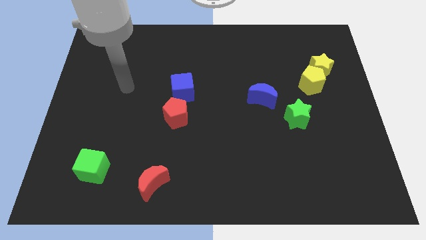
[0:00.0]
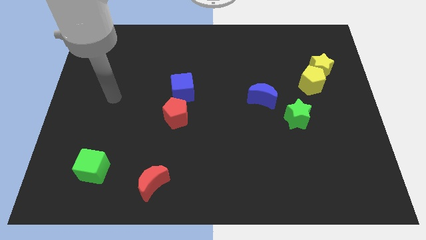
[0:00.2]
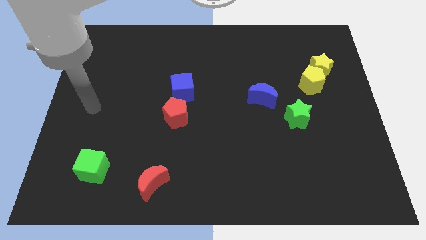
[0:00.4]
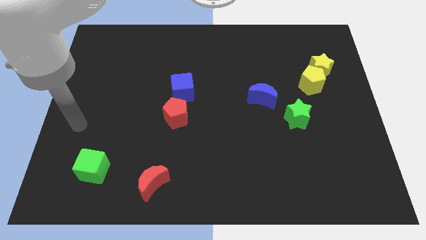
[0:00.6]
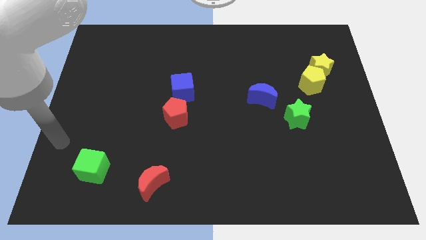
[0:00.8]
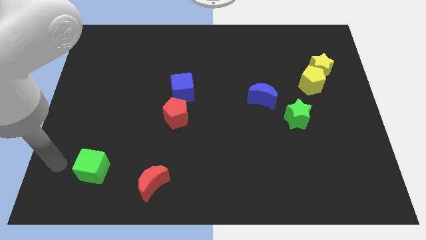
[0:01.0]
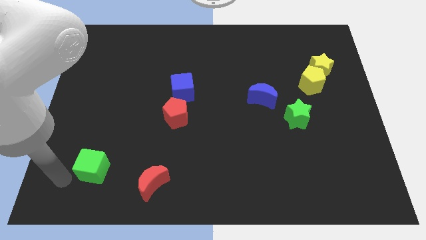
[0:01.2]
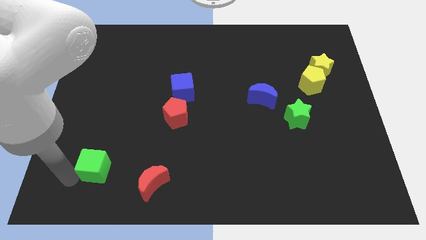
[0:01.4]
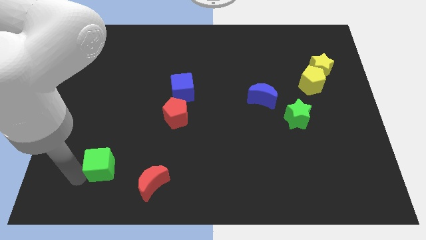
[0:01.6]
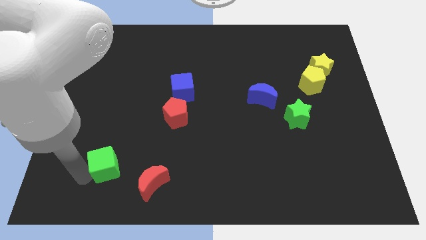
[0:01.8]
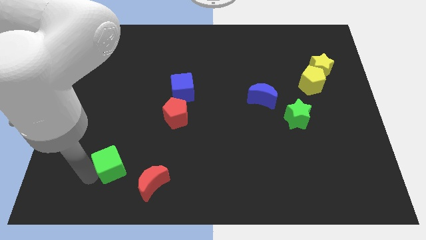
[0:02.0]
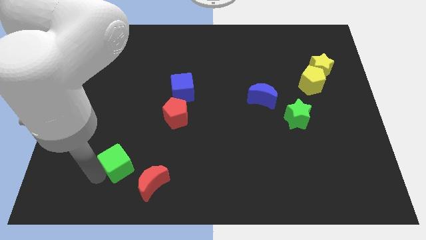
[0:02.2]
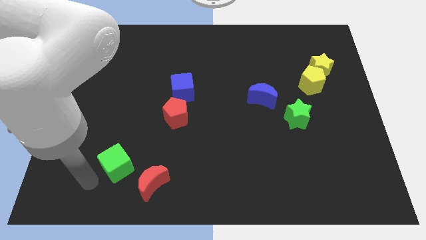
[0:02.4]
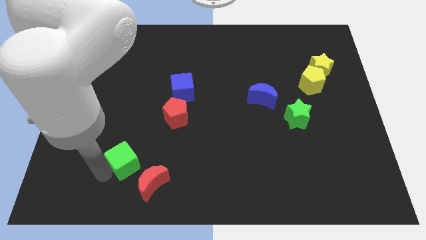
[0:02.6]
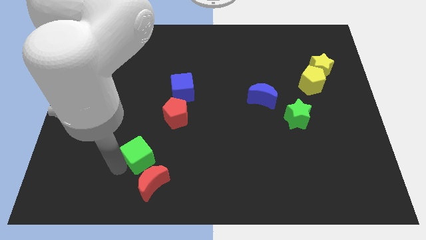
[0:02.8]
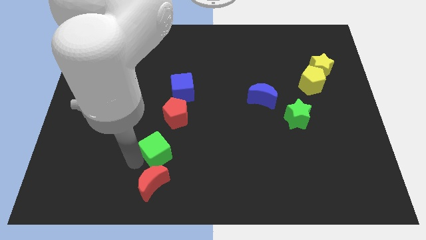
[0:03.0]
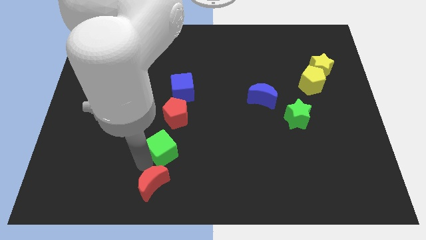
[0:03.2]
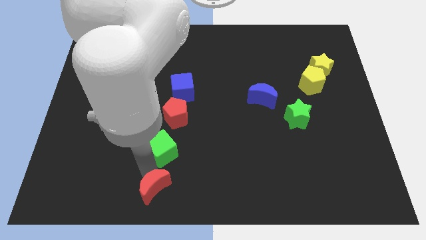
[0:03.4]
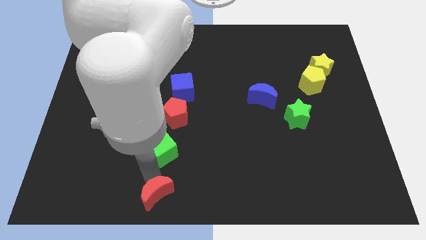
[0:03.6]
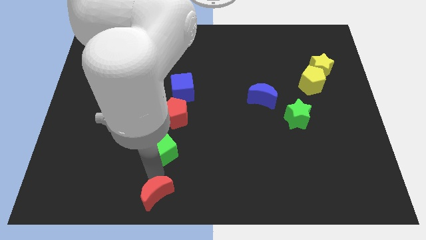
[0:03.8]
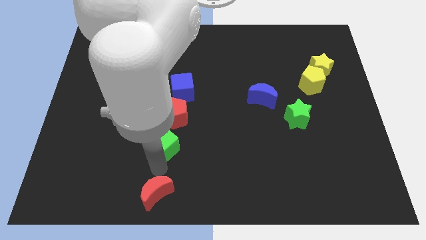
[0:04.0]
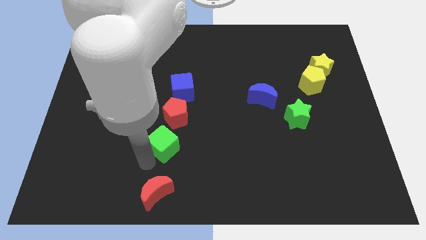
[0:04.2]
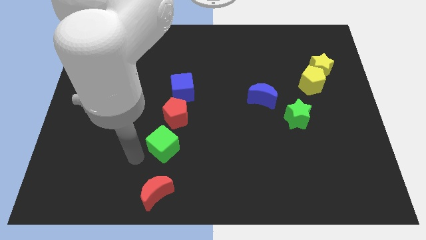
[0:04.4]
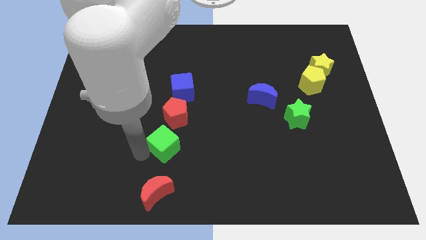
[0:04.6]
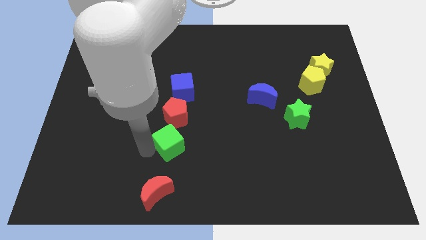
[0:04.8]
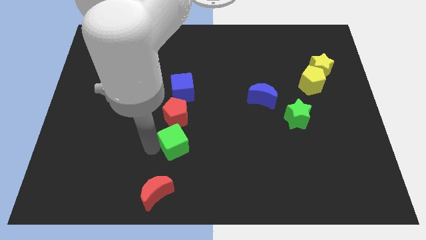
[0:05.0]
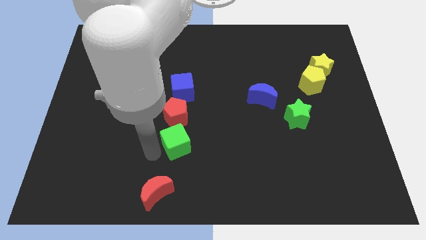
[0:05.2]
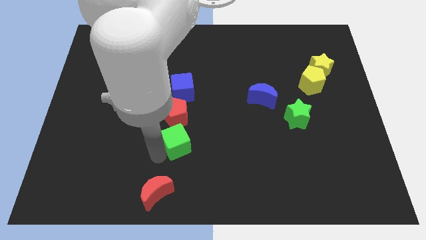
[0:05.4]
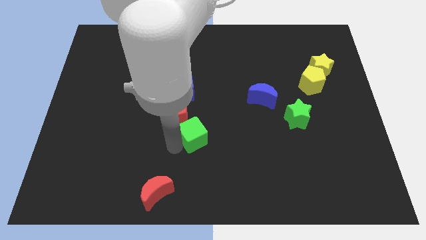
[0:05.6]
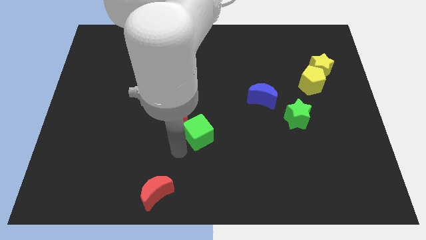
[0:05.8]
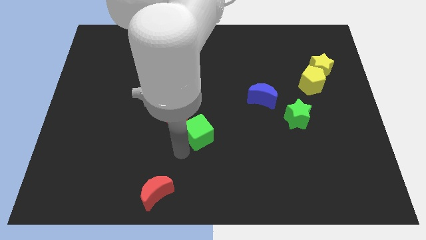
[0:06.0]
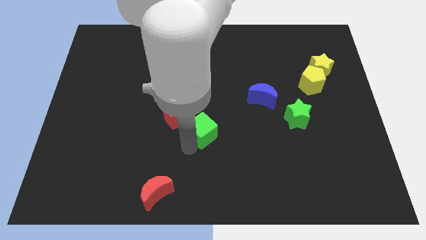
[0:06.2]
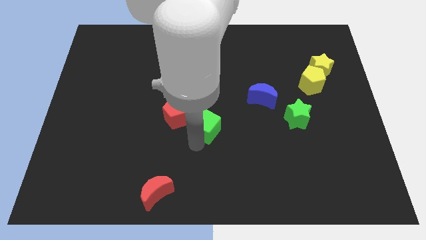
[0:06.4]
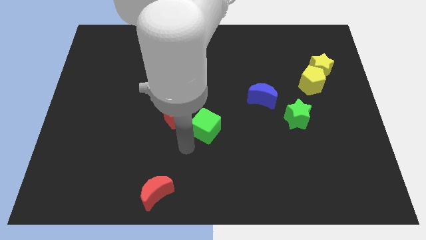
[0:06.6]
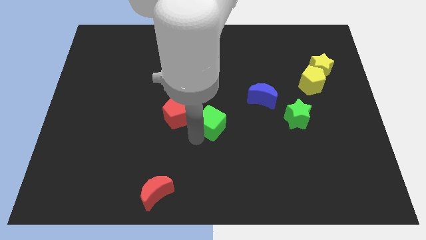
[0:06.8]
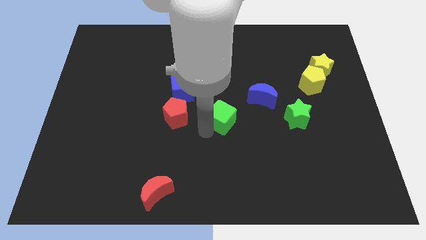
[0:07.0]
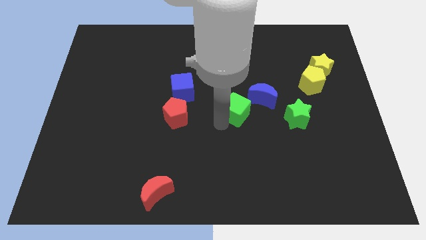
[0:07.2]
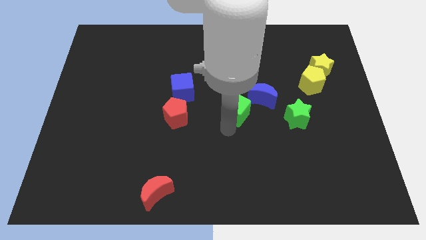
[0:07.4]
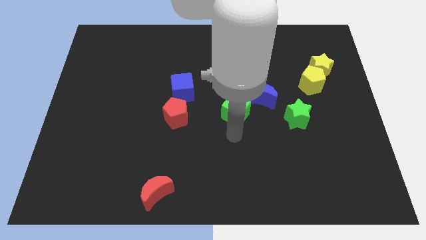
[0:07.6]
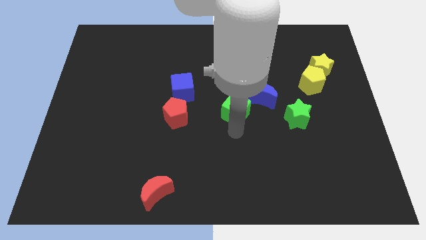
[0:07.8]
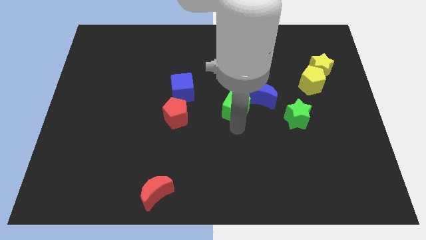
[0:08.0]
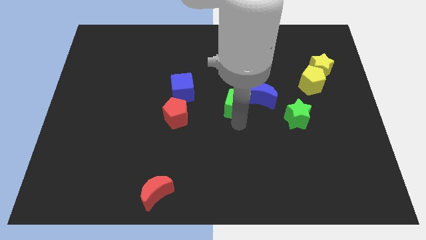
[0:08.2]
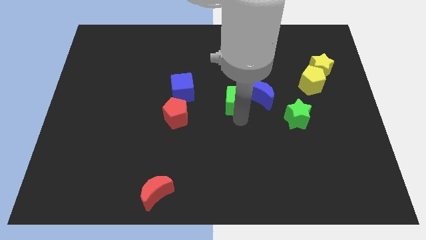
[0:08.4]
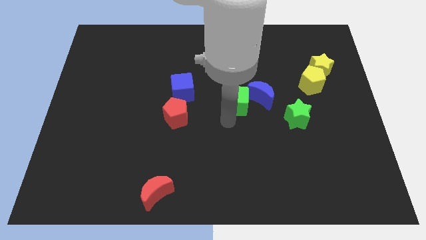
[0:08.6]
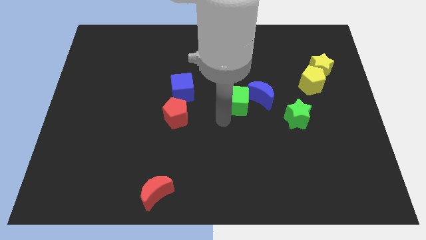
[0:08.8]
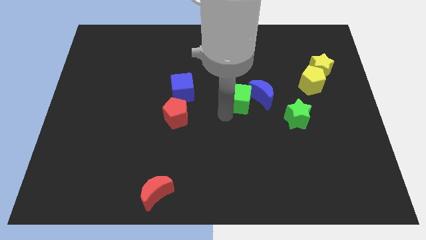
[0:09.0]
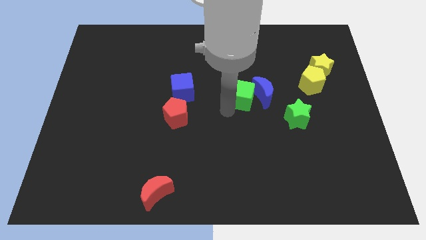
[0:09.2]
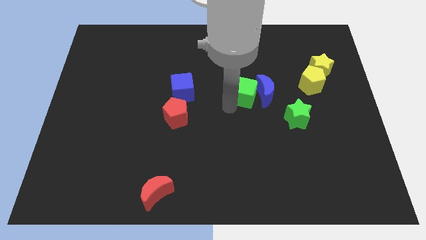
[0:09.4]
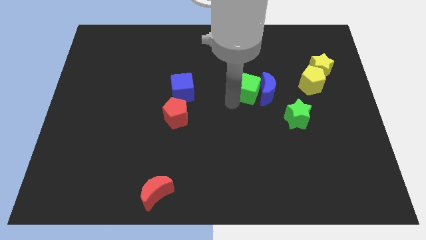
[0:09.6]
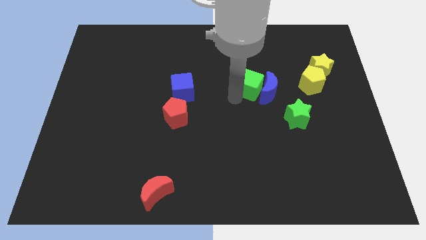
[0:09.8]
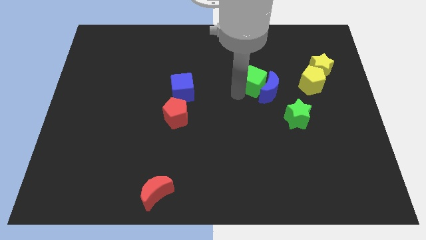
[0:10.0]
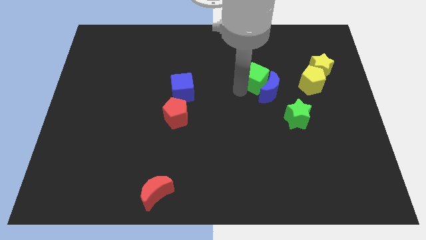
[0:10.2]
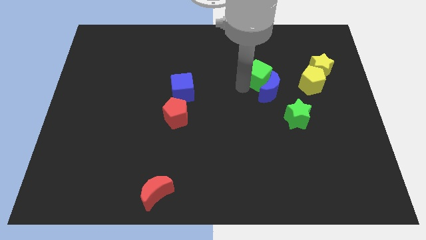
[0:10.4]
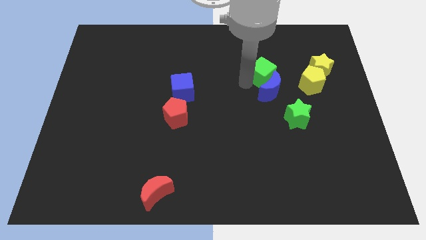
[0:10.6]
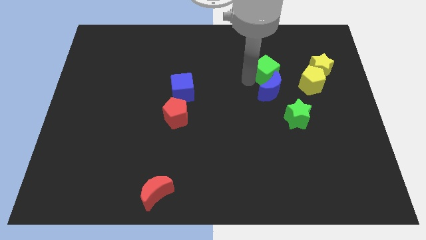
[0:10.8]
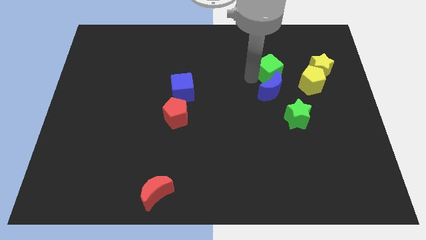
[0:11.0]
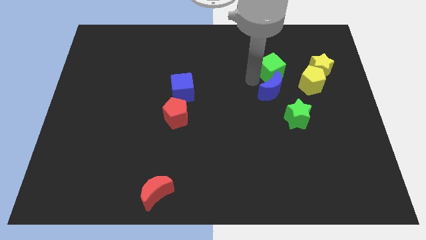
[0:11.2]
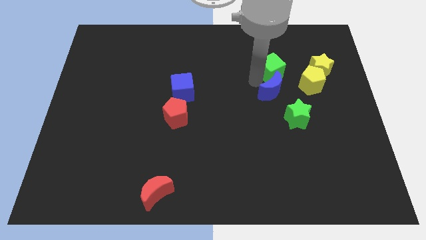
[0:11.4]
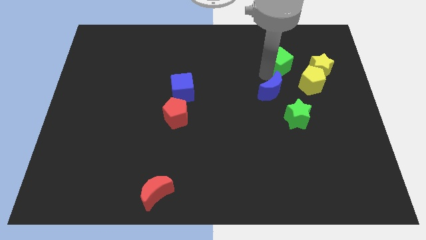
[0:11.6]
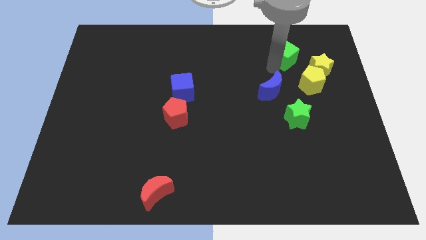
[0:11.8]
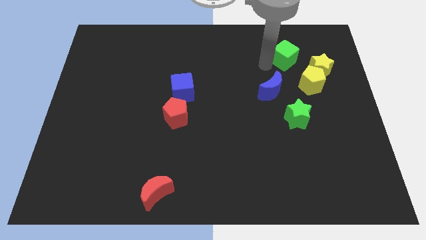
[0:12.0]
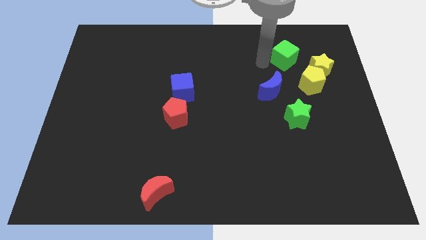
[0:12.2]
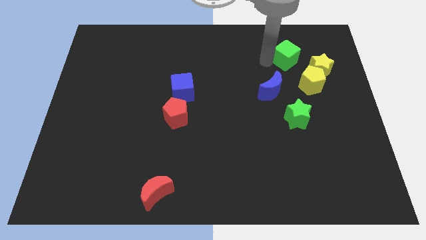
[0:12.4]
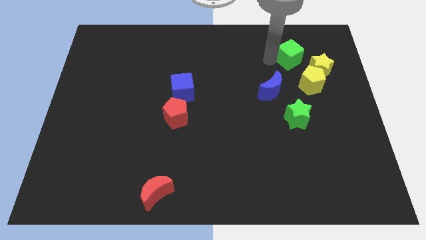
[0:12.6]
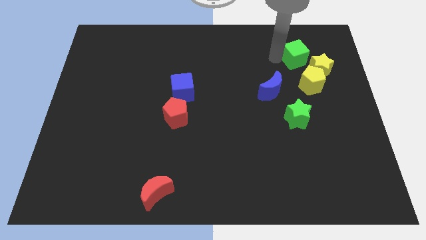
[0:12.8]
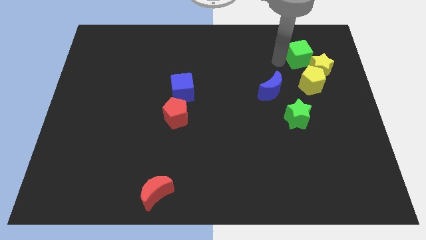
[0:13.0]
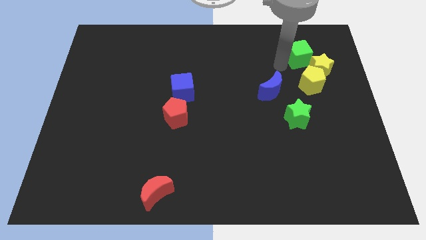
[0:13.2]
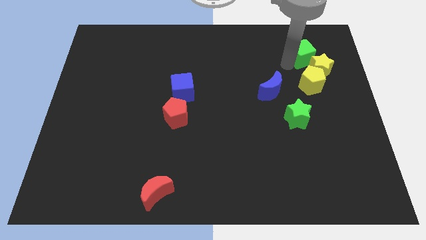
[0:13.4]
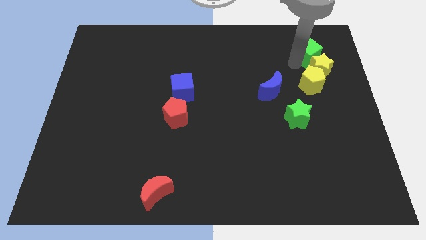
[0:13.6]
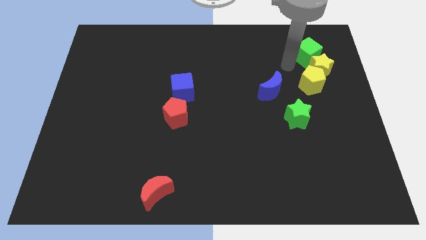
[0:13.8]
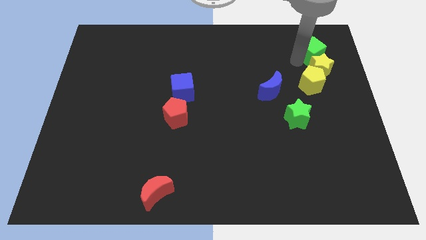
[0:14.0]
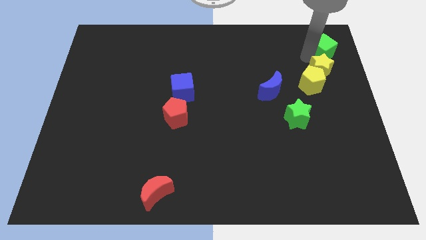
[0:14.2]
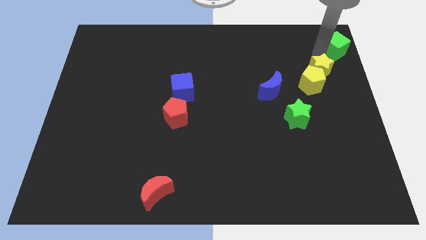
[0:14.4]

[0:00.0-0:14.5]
slide the green cube to the top right of the board

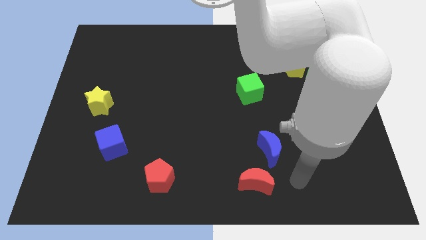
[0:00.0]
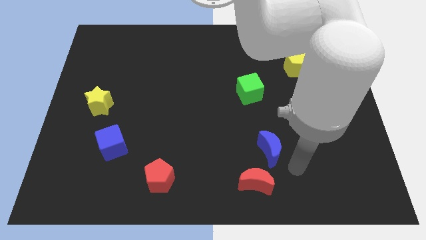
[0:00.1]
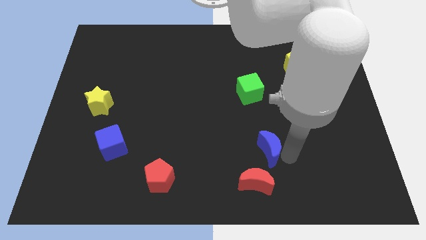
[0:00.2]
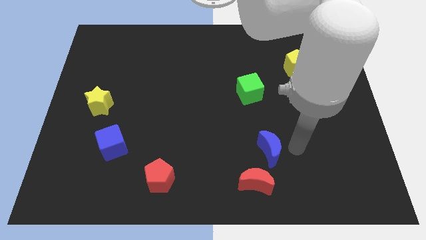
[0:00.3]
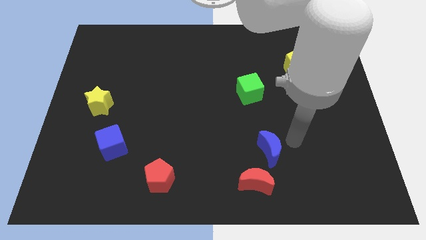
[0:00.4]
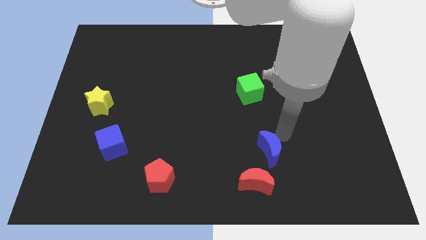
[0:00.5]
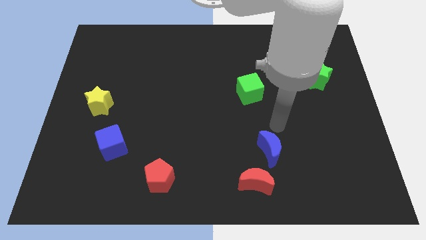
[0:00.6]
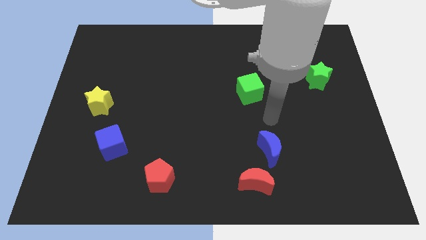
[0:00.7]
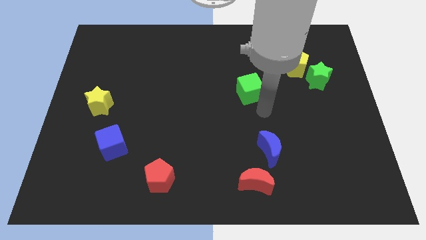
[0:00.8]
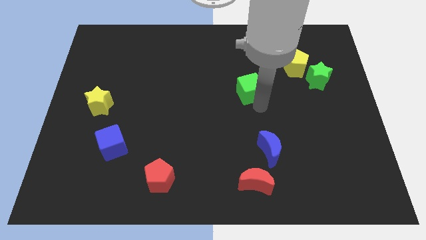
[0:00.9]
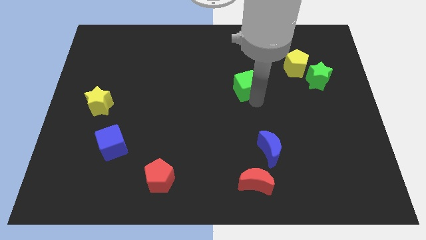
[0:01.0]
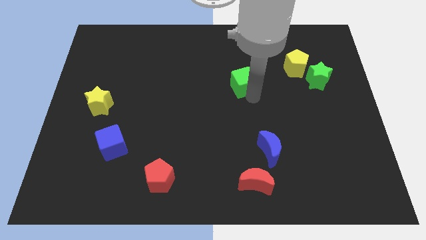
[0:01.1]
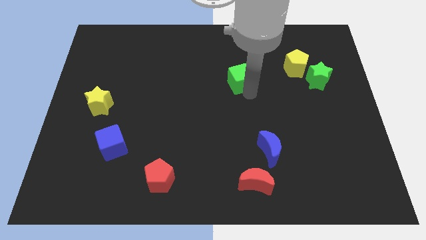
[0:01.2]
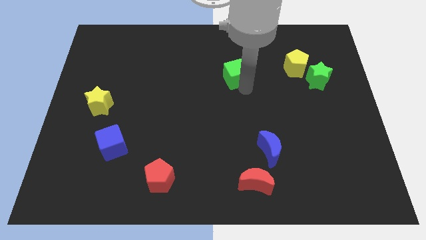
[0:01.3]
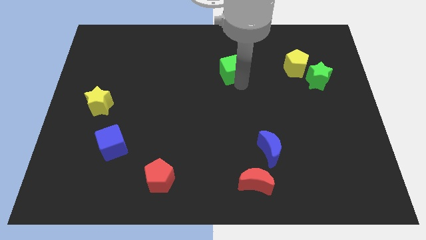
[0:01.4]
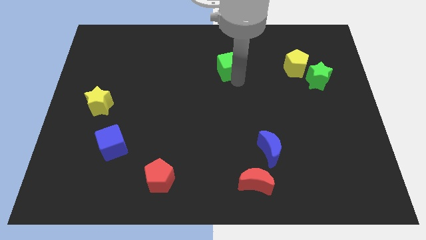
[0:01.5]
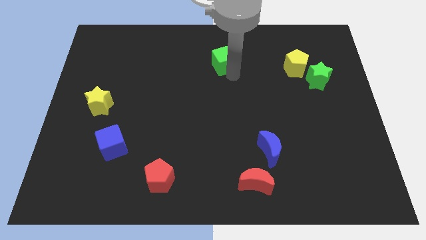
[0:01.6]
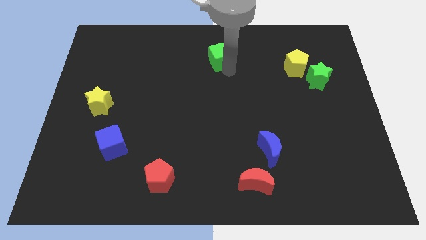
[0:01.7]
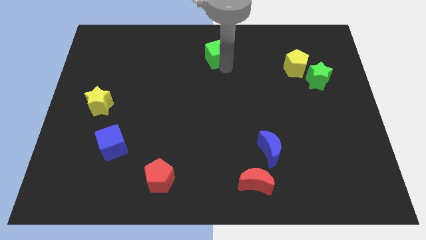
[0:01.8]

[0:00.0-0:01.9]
move the green cube to the top side
